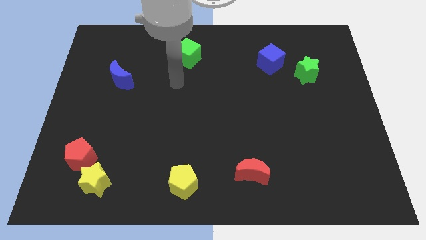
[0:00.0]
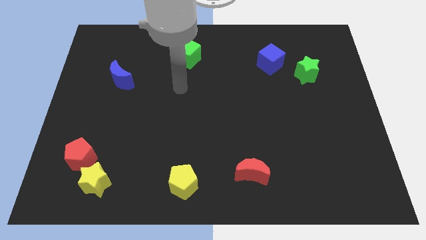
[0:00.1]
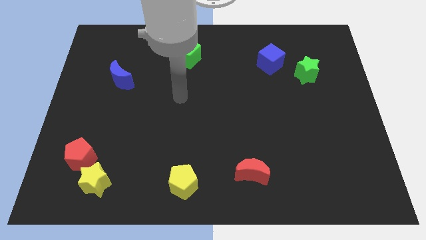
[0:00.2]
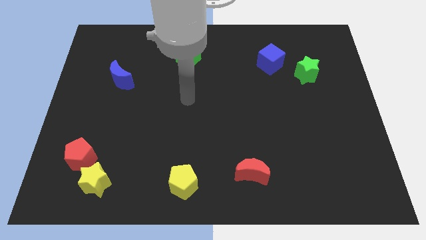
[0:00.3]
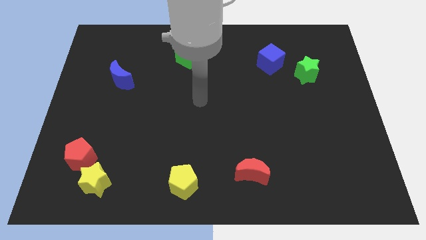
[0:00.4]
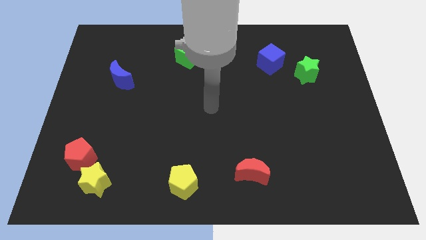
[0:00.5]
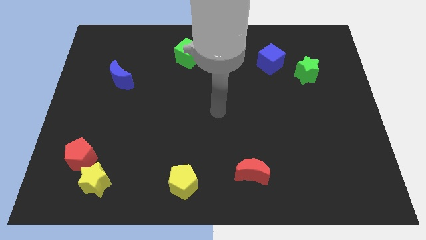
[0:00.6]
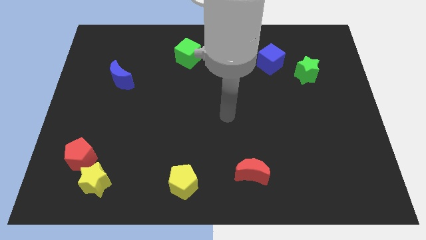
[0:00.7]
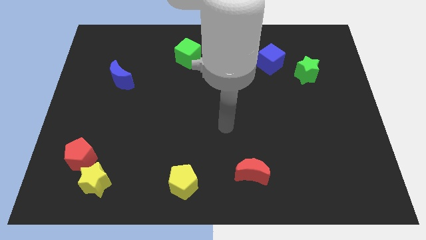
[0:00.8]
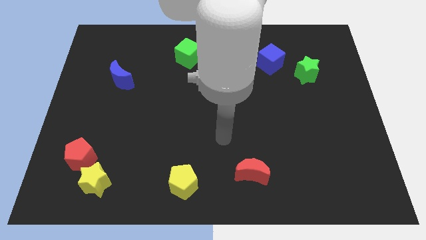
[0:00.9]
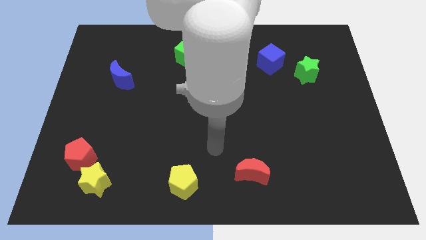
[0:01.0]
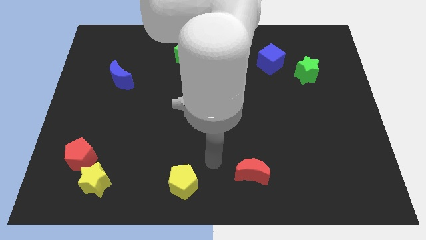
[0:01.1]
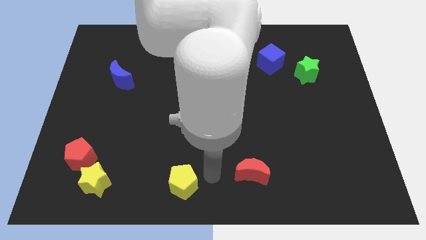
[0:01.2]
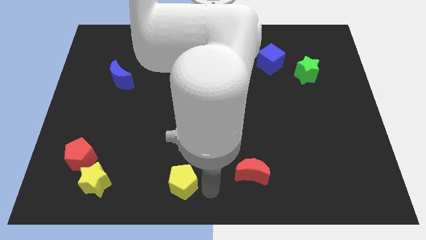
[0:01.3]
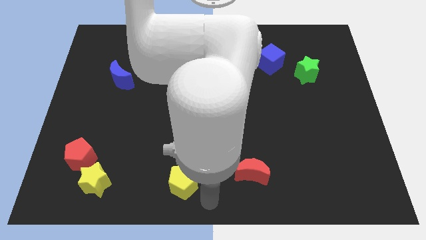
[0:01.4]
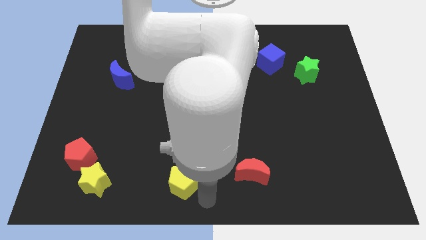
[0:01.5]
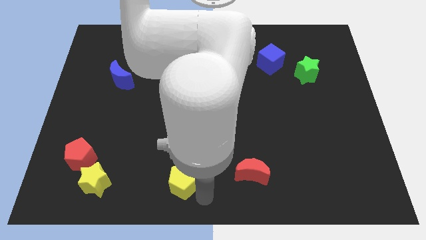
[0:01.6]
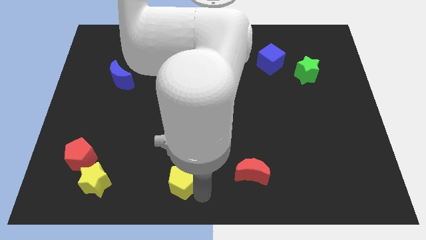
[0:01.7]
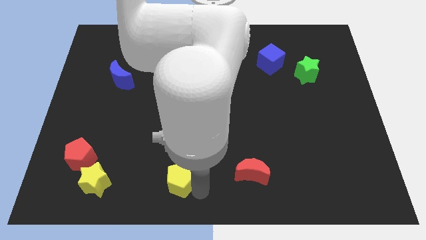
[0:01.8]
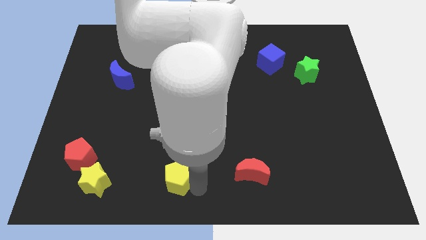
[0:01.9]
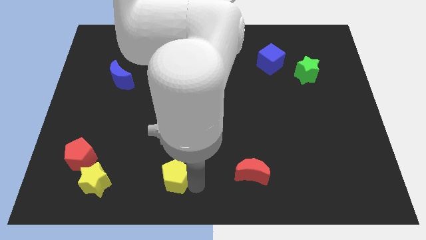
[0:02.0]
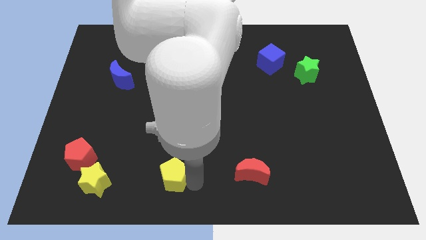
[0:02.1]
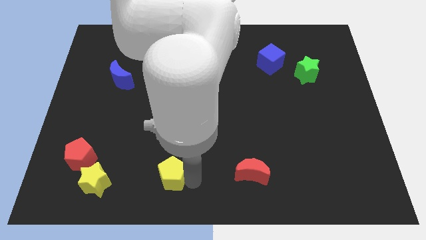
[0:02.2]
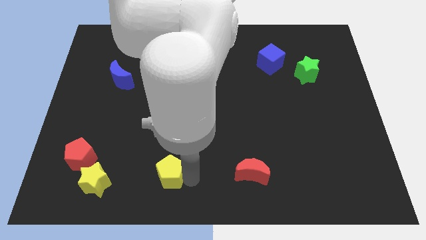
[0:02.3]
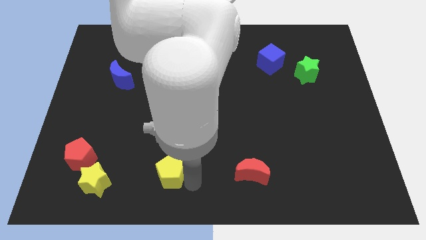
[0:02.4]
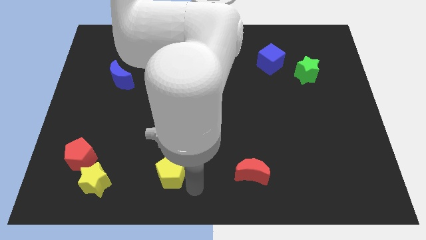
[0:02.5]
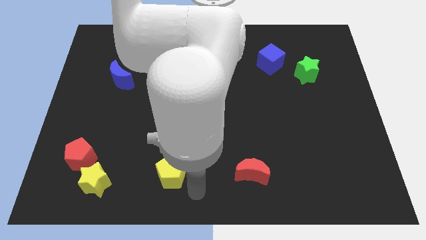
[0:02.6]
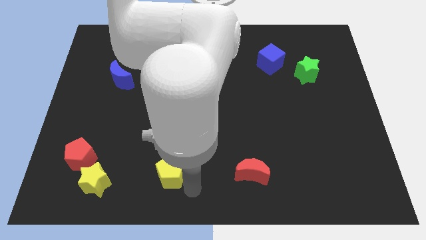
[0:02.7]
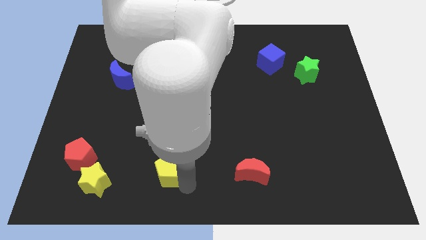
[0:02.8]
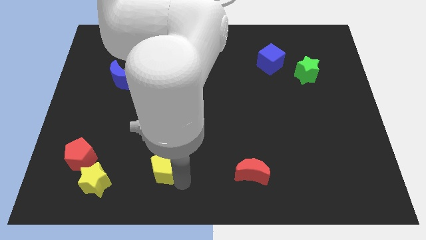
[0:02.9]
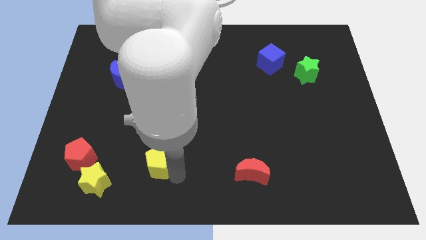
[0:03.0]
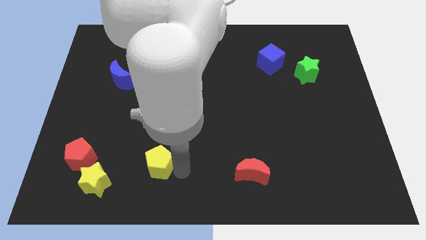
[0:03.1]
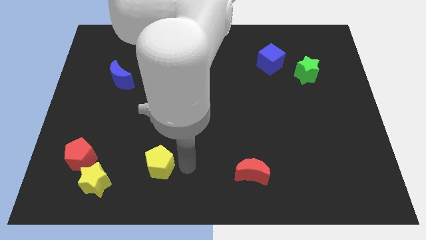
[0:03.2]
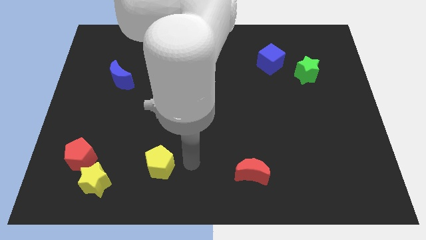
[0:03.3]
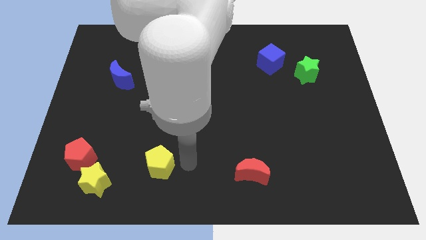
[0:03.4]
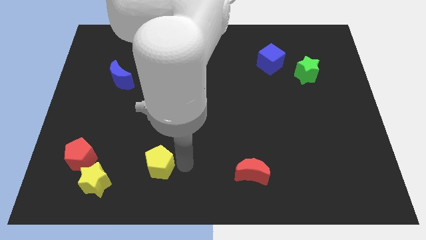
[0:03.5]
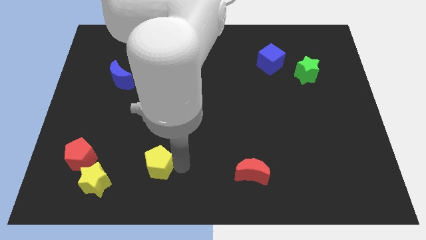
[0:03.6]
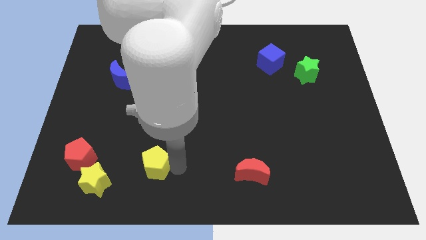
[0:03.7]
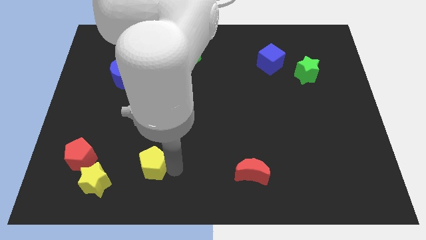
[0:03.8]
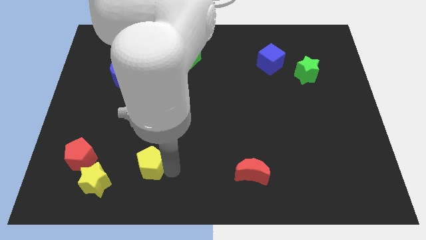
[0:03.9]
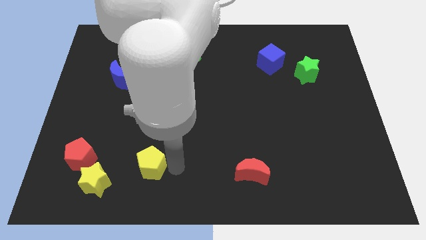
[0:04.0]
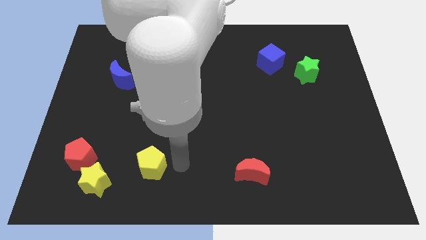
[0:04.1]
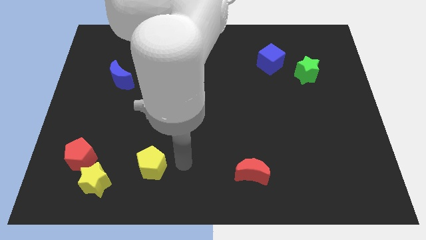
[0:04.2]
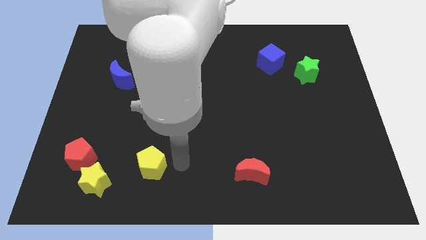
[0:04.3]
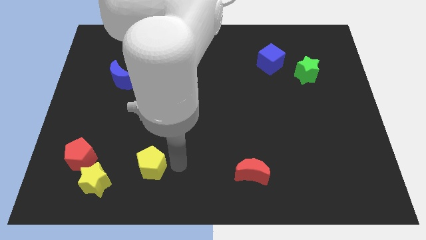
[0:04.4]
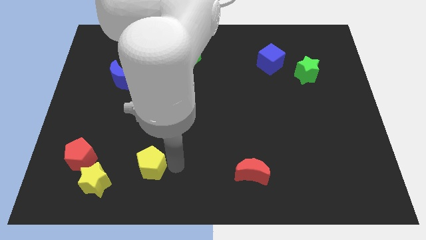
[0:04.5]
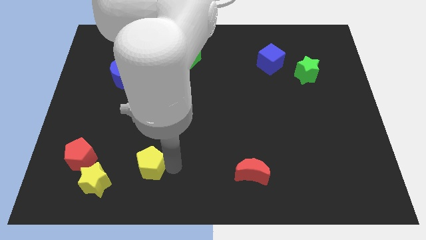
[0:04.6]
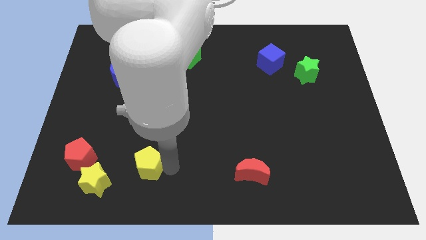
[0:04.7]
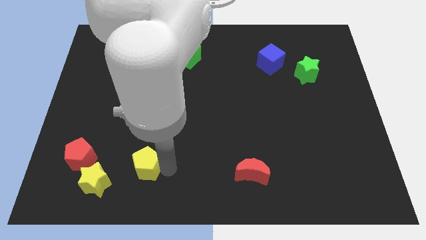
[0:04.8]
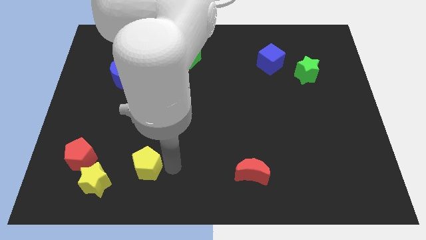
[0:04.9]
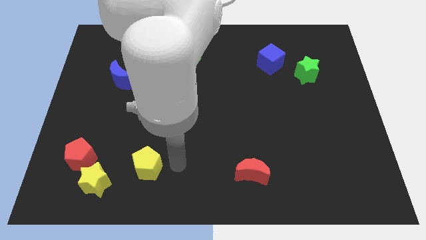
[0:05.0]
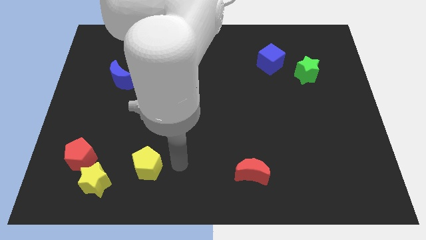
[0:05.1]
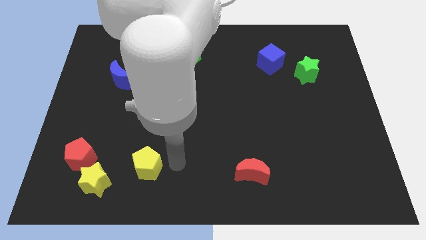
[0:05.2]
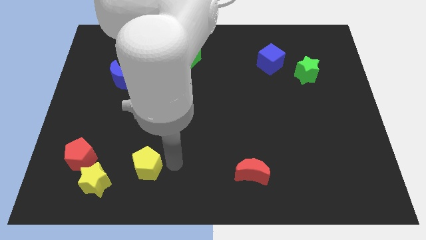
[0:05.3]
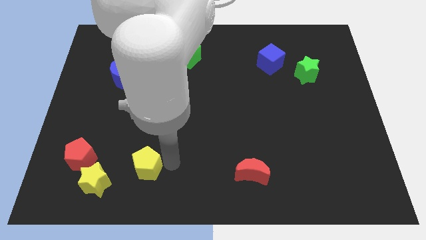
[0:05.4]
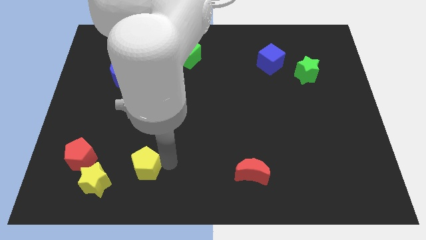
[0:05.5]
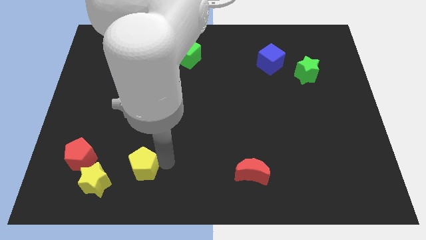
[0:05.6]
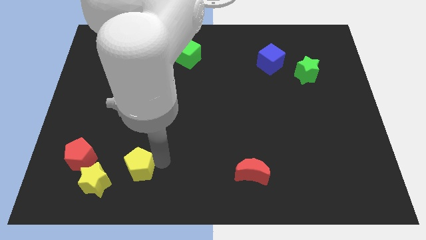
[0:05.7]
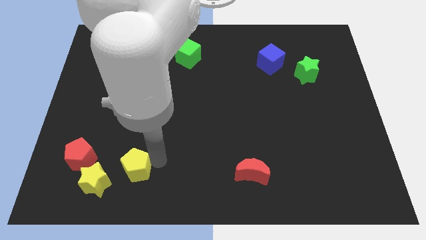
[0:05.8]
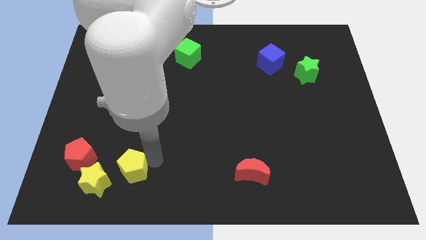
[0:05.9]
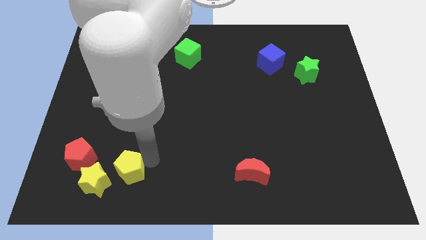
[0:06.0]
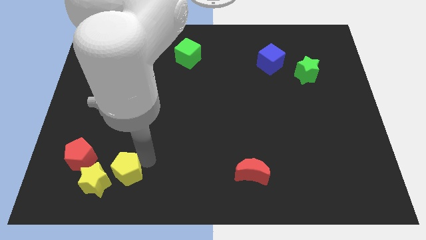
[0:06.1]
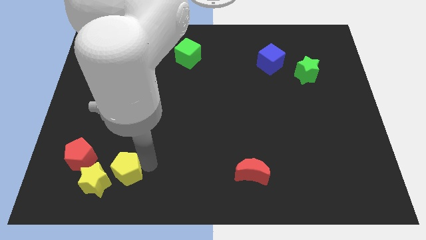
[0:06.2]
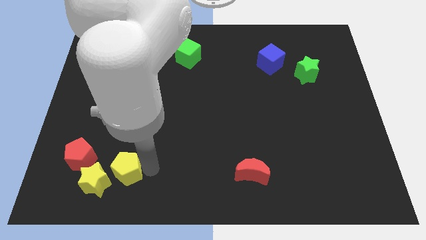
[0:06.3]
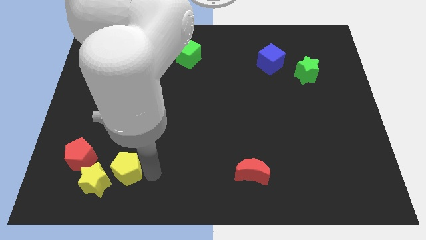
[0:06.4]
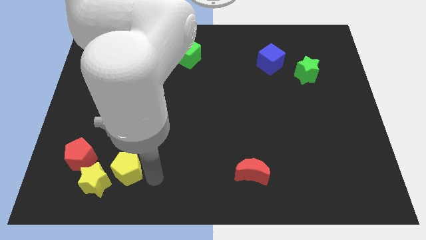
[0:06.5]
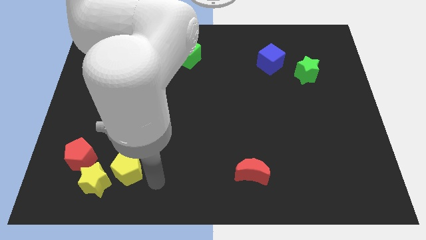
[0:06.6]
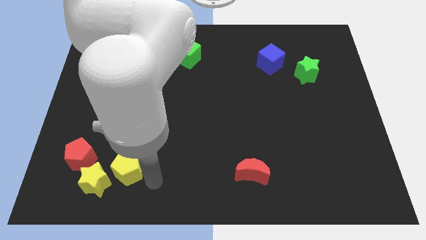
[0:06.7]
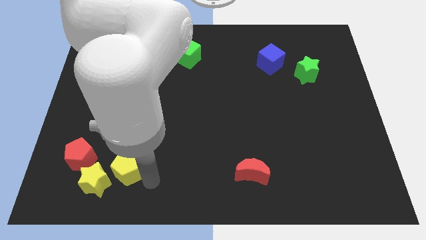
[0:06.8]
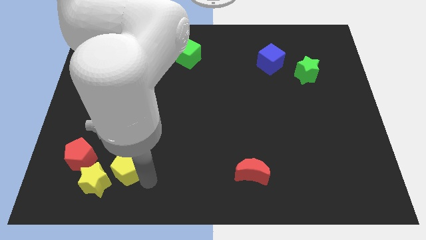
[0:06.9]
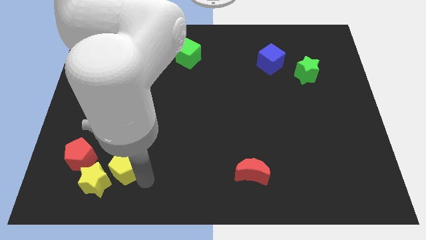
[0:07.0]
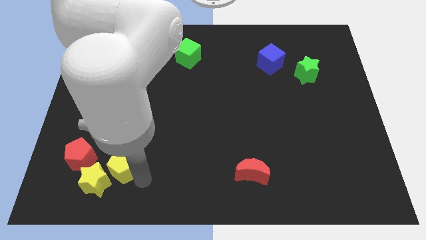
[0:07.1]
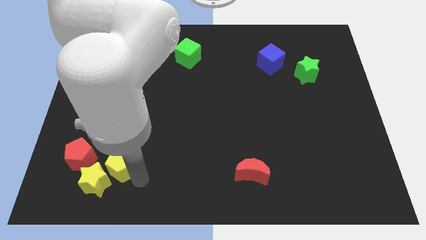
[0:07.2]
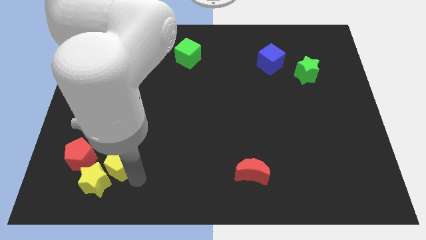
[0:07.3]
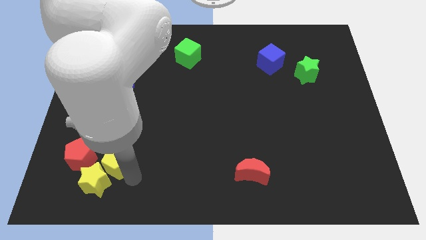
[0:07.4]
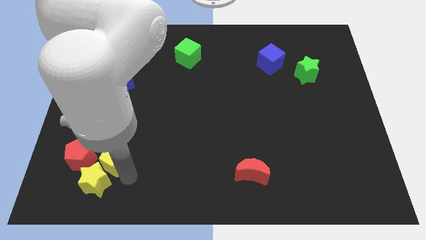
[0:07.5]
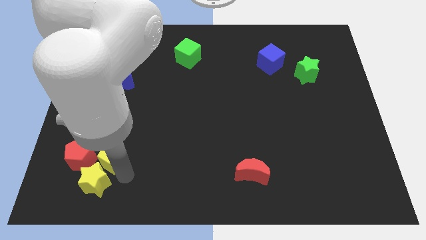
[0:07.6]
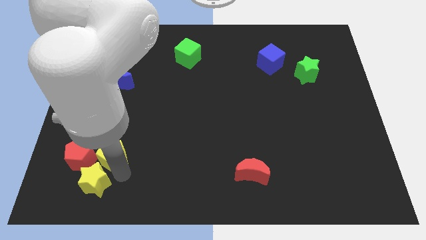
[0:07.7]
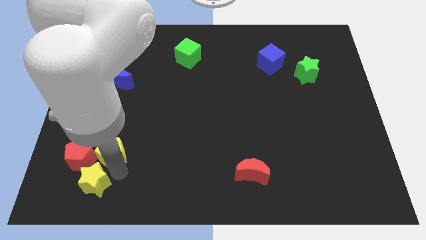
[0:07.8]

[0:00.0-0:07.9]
slide the yellow pentagon towards the red pentagon
